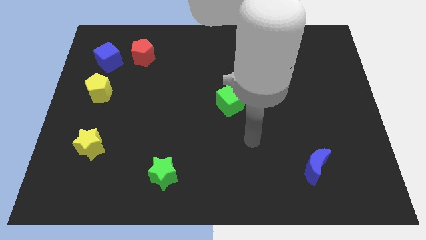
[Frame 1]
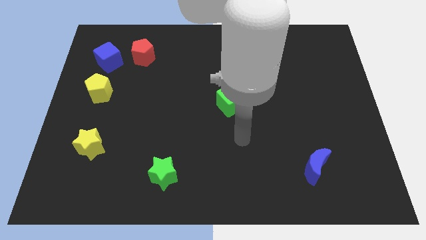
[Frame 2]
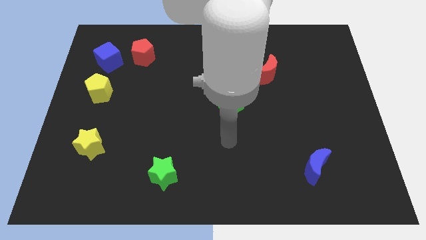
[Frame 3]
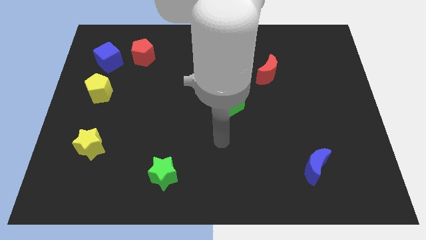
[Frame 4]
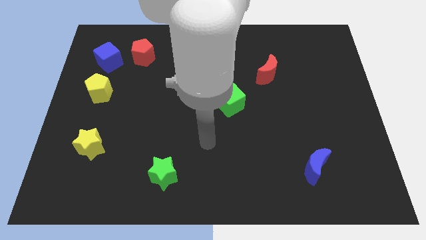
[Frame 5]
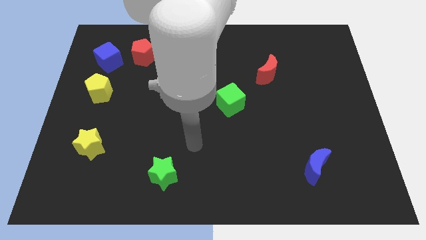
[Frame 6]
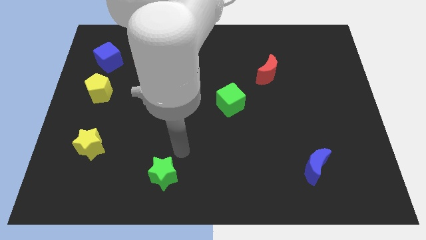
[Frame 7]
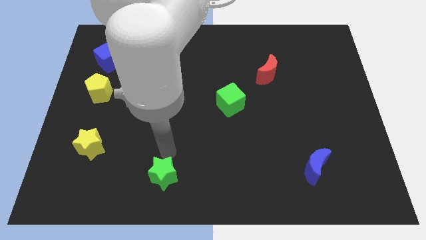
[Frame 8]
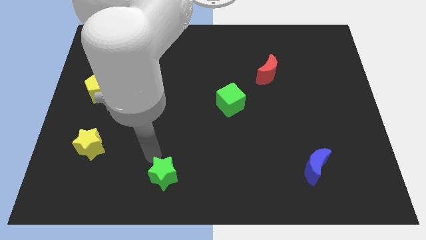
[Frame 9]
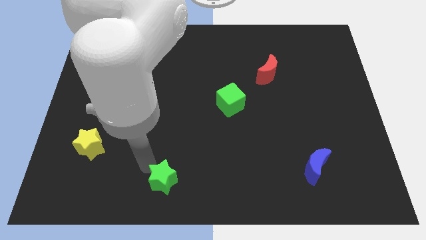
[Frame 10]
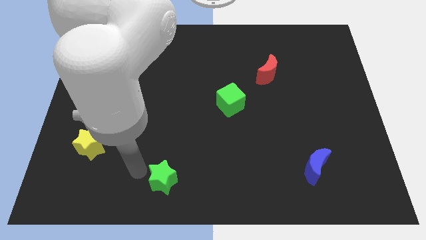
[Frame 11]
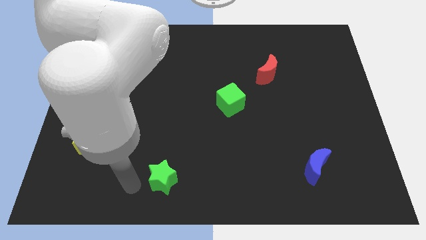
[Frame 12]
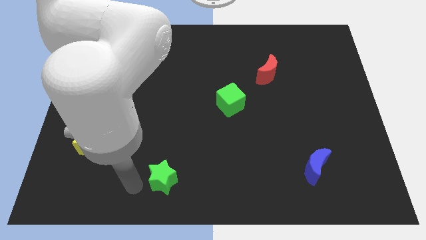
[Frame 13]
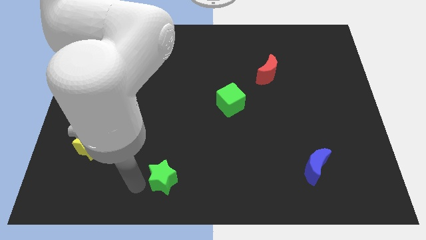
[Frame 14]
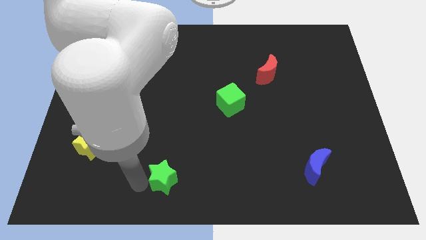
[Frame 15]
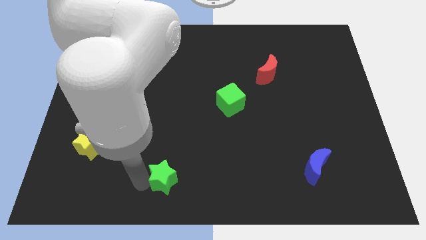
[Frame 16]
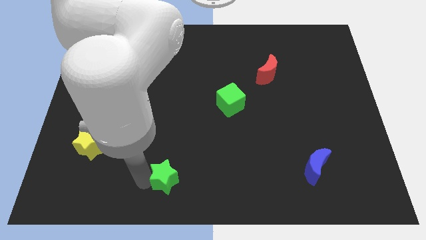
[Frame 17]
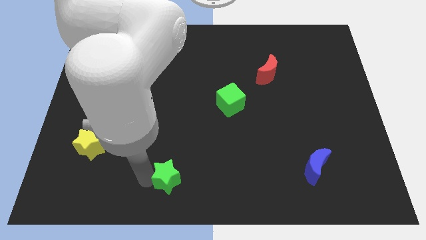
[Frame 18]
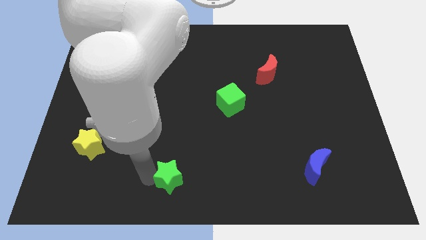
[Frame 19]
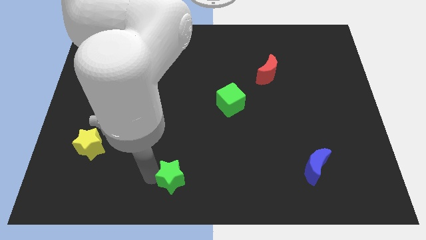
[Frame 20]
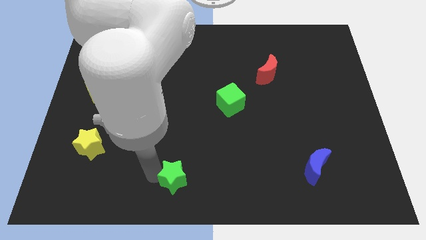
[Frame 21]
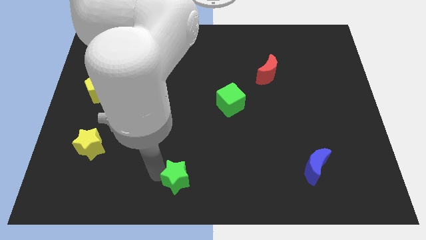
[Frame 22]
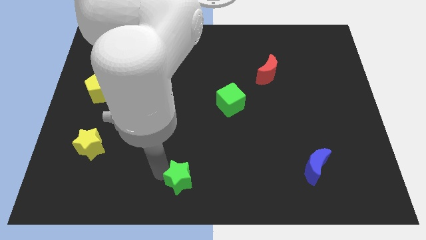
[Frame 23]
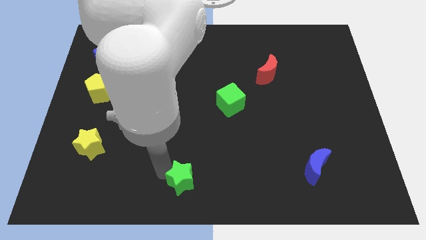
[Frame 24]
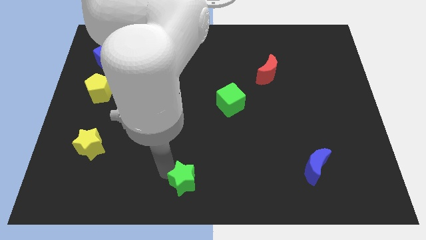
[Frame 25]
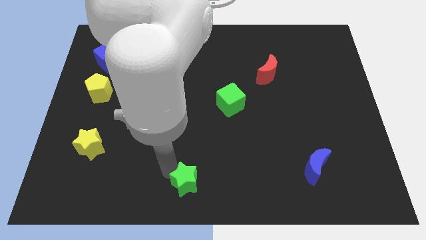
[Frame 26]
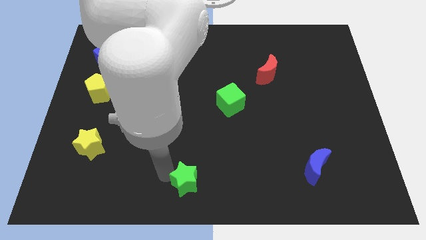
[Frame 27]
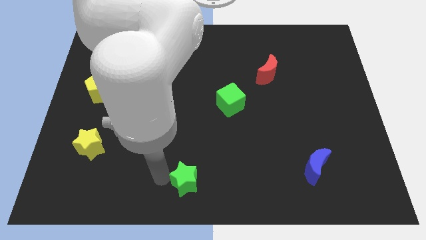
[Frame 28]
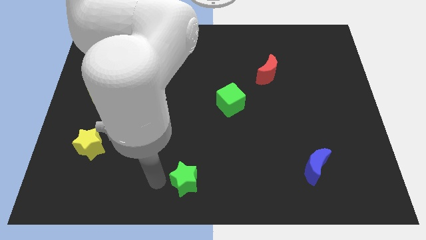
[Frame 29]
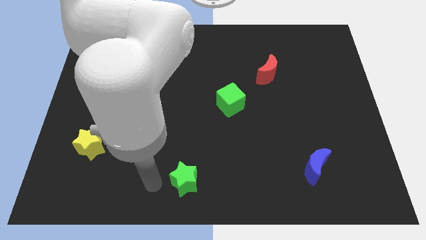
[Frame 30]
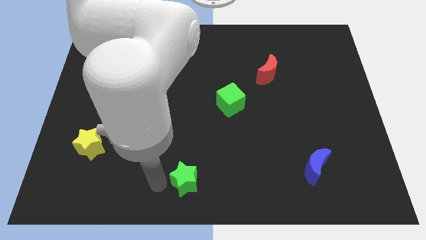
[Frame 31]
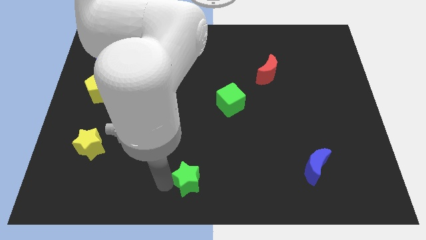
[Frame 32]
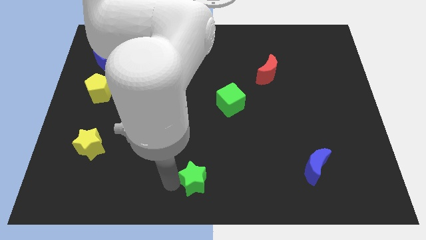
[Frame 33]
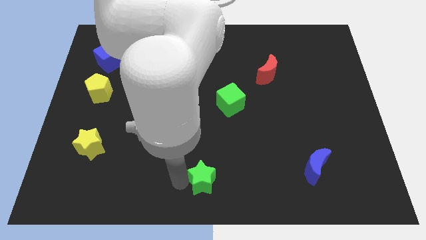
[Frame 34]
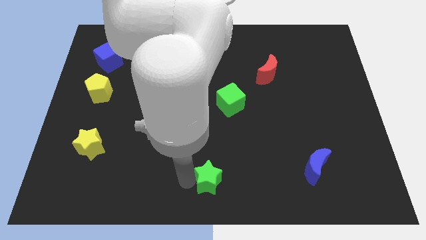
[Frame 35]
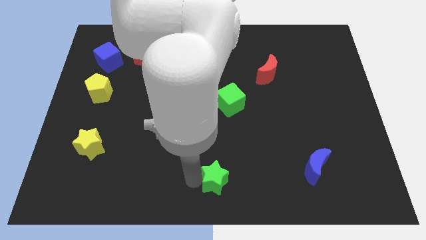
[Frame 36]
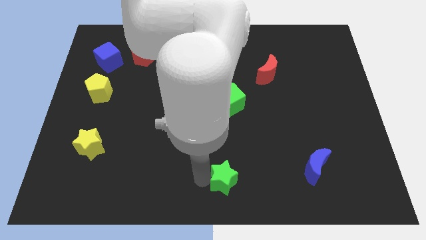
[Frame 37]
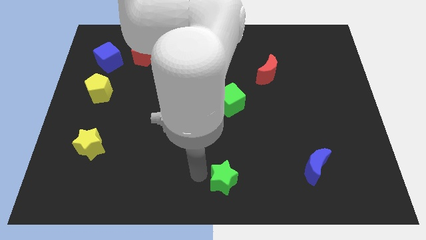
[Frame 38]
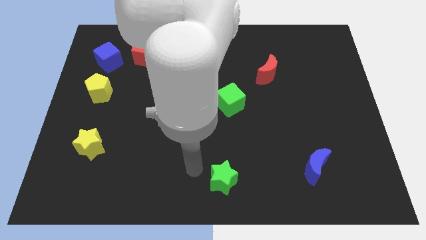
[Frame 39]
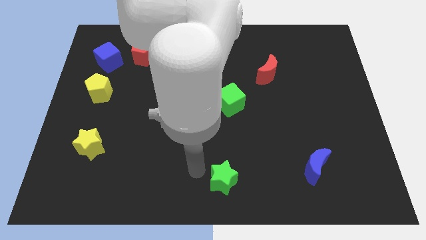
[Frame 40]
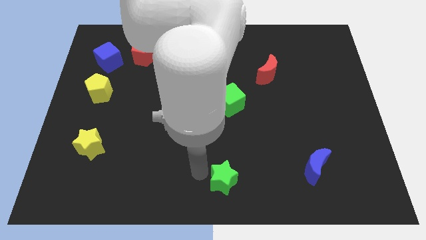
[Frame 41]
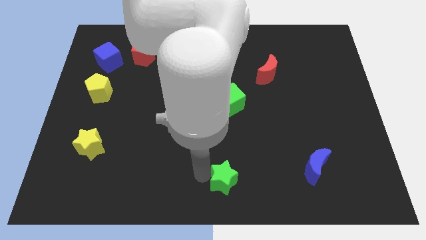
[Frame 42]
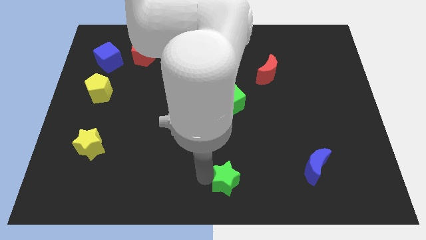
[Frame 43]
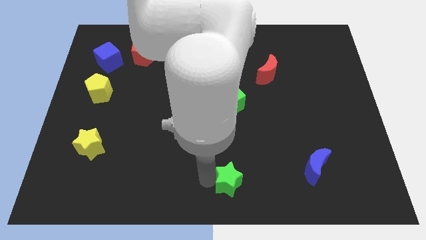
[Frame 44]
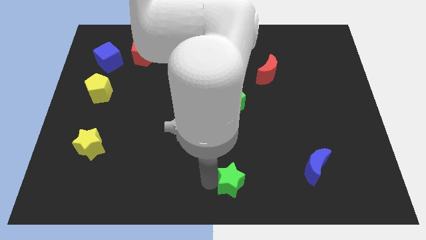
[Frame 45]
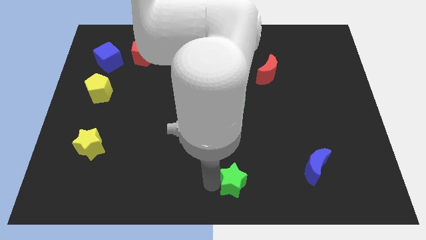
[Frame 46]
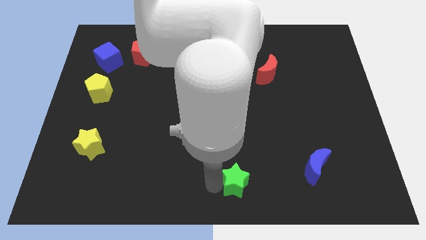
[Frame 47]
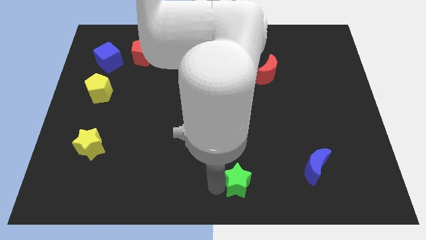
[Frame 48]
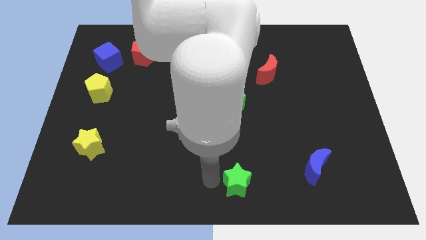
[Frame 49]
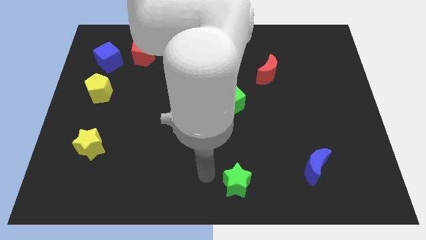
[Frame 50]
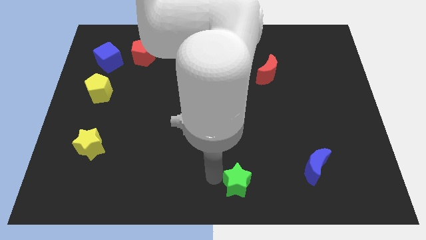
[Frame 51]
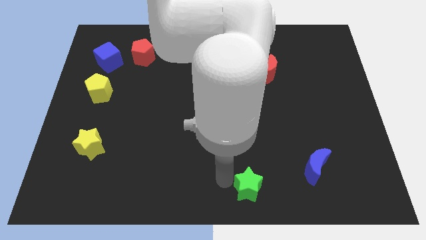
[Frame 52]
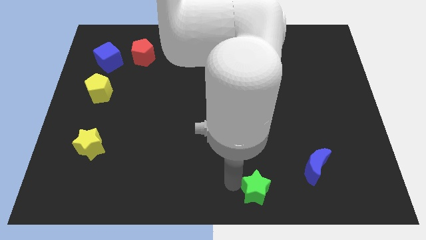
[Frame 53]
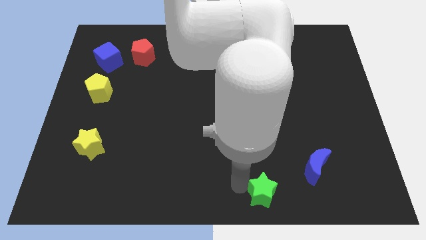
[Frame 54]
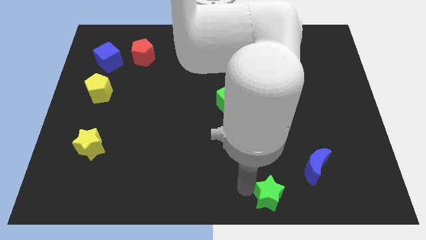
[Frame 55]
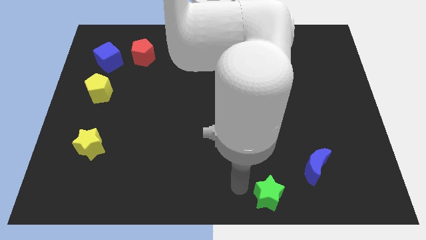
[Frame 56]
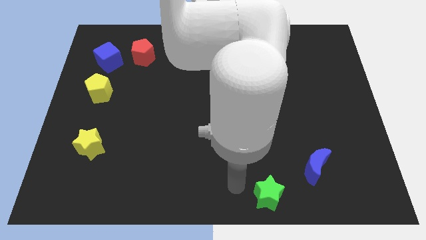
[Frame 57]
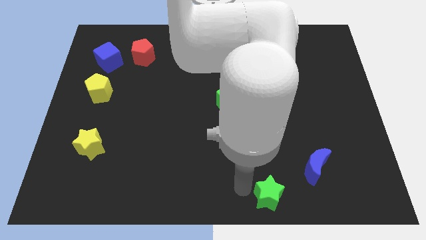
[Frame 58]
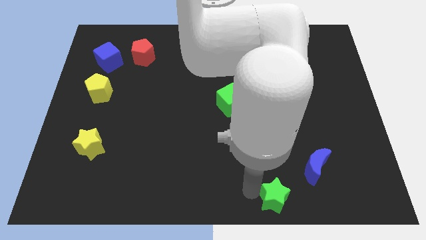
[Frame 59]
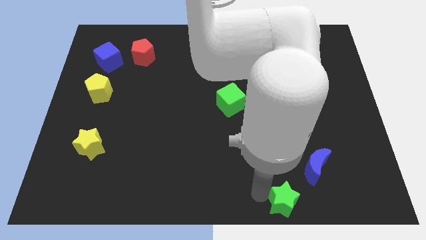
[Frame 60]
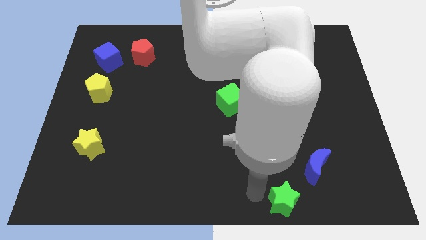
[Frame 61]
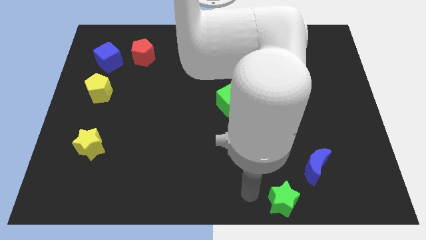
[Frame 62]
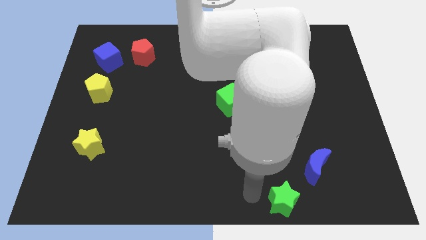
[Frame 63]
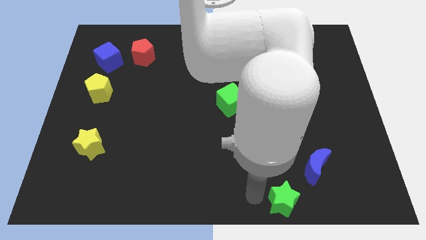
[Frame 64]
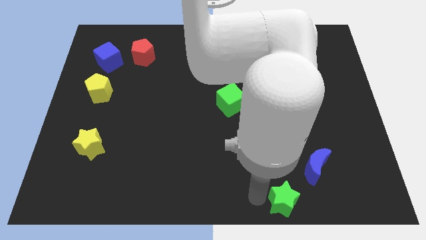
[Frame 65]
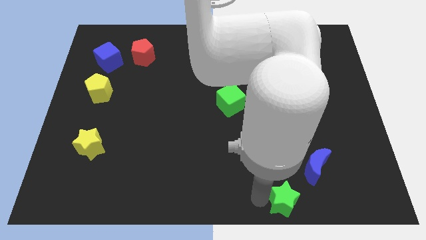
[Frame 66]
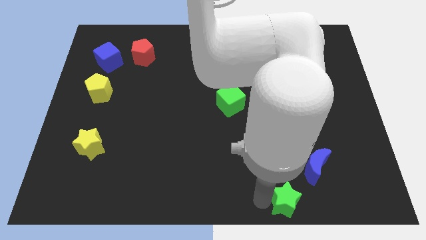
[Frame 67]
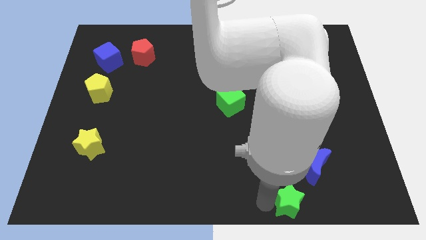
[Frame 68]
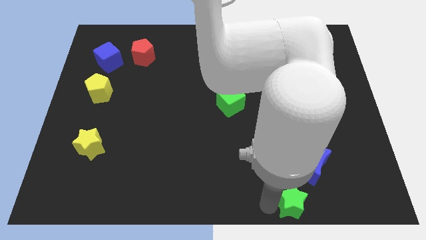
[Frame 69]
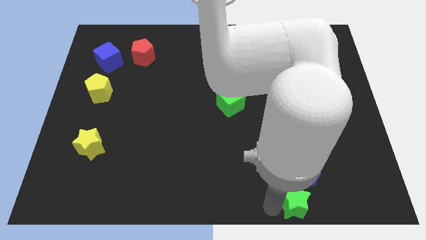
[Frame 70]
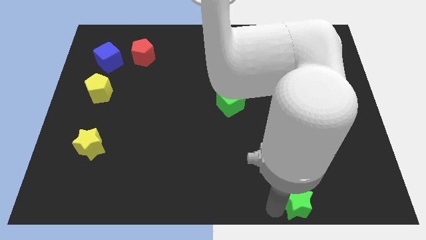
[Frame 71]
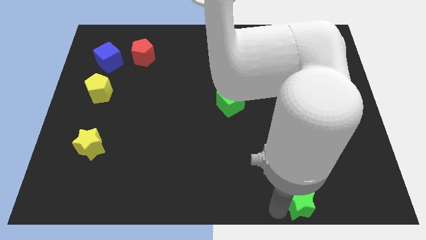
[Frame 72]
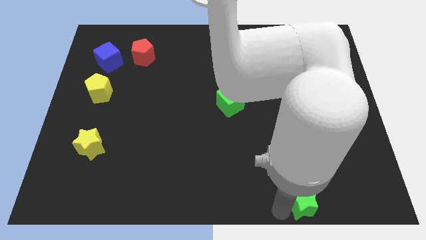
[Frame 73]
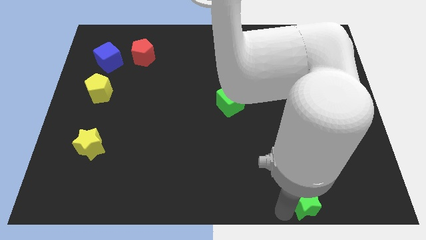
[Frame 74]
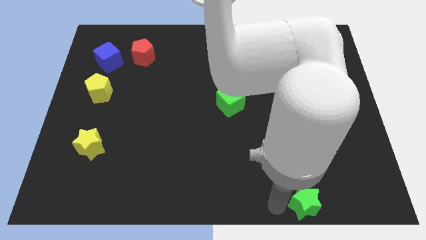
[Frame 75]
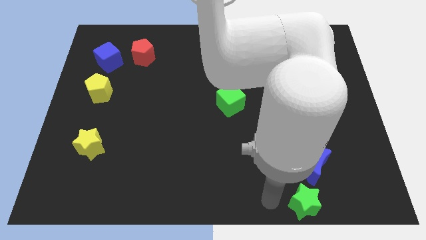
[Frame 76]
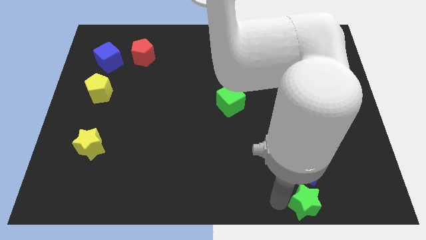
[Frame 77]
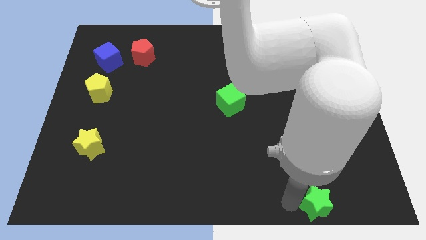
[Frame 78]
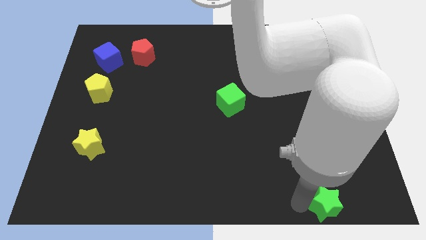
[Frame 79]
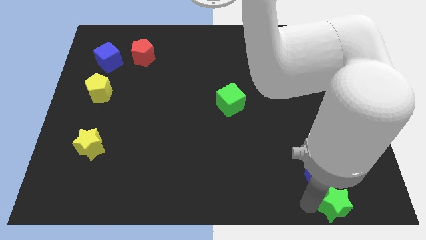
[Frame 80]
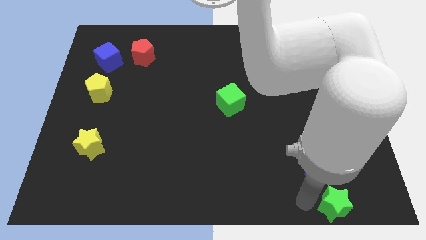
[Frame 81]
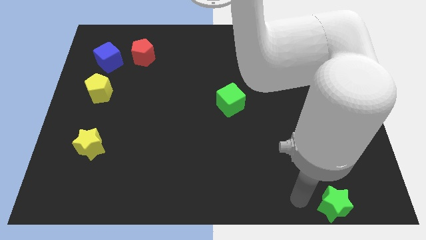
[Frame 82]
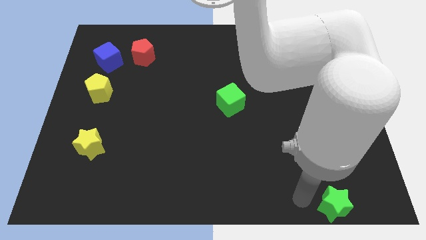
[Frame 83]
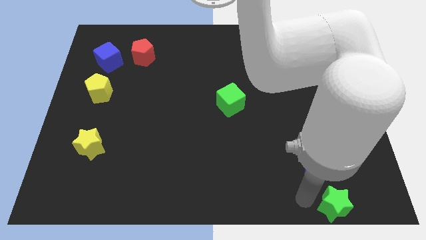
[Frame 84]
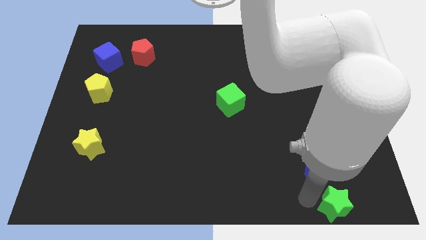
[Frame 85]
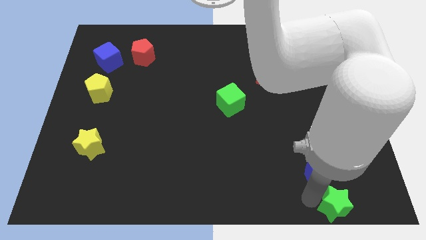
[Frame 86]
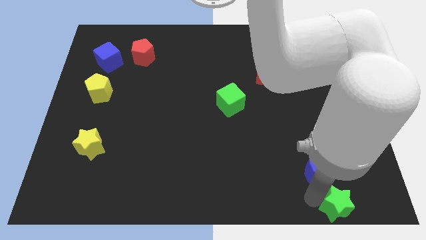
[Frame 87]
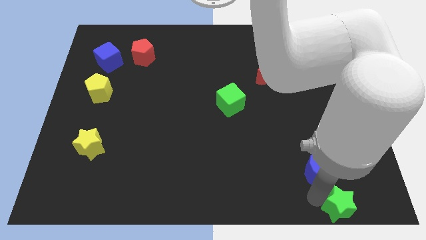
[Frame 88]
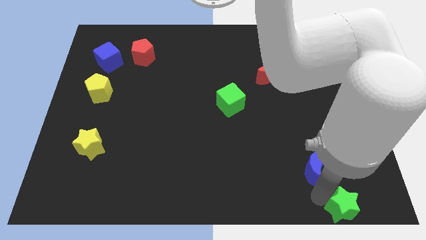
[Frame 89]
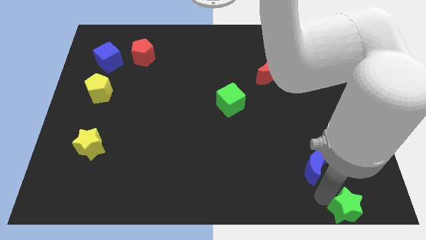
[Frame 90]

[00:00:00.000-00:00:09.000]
slide the green star to the bottom right of the board
